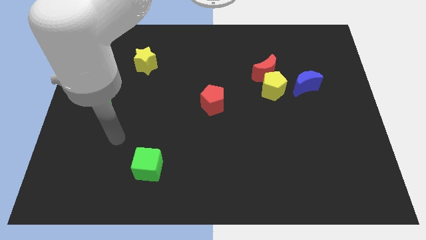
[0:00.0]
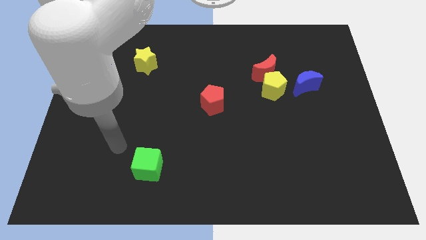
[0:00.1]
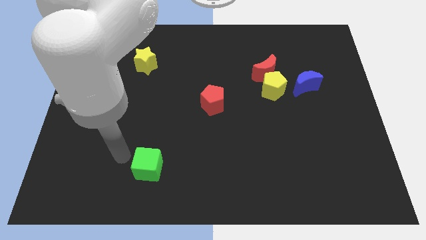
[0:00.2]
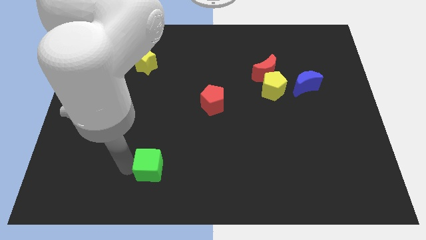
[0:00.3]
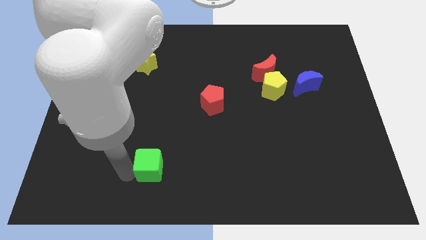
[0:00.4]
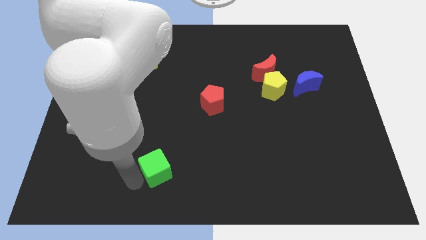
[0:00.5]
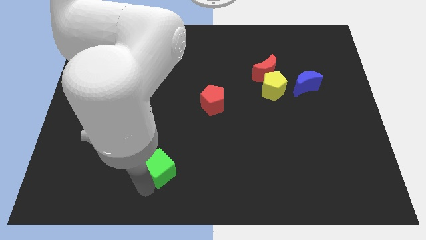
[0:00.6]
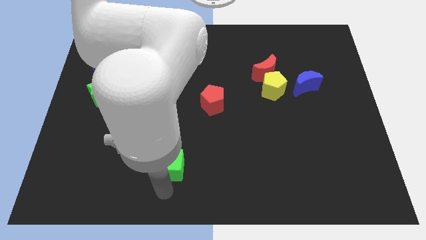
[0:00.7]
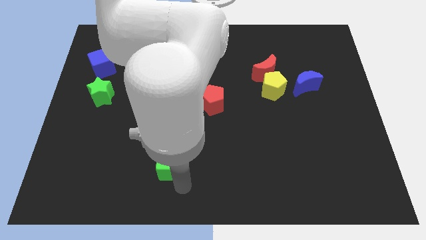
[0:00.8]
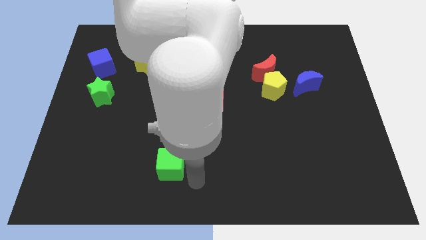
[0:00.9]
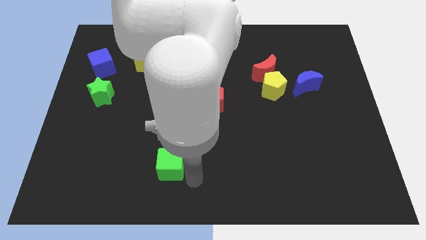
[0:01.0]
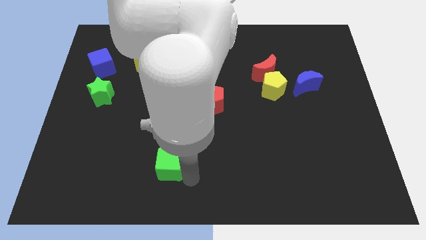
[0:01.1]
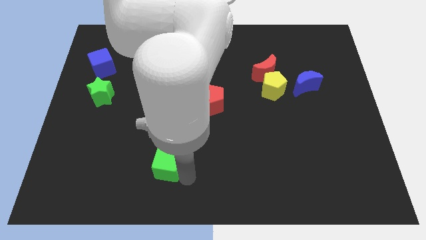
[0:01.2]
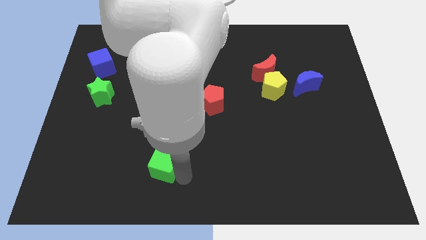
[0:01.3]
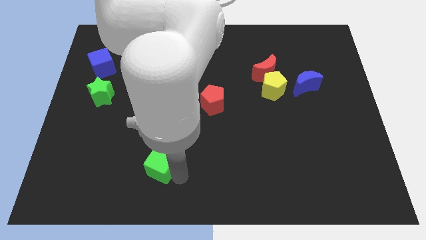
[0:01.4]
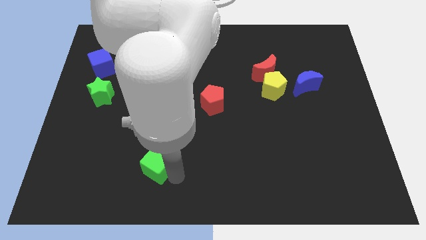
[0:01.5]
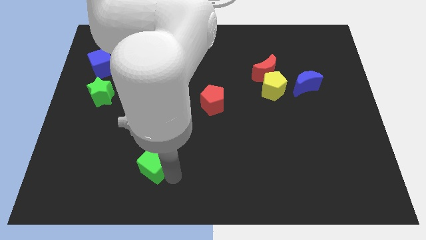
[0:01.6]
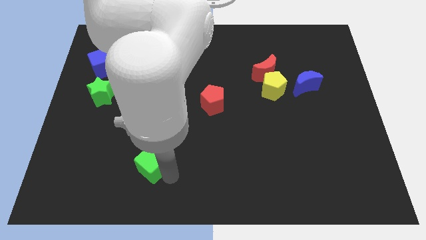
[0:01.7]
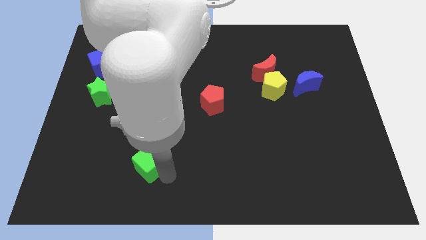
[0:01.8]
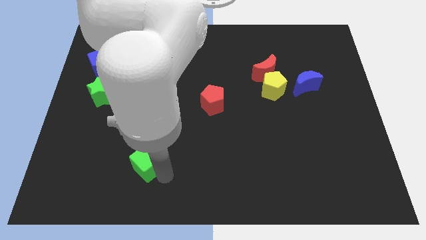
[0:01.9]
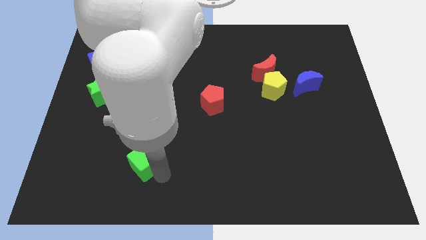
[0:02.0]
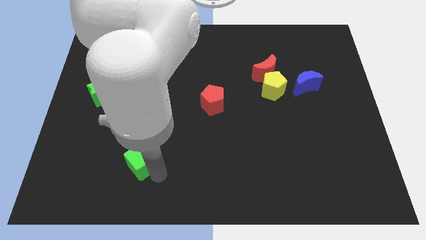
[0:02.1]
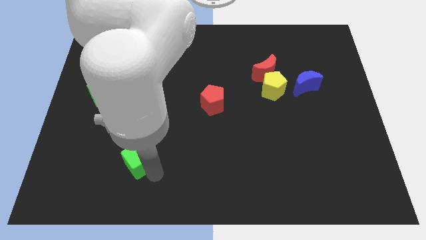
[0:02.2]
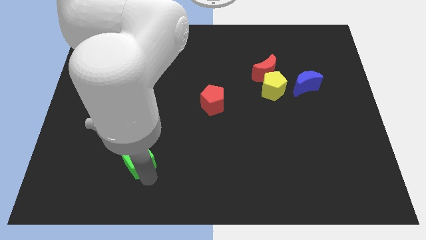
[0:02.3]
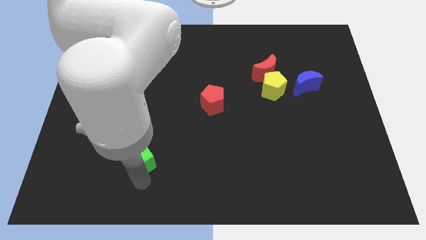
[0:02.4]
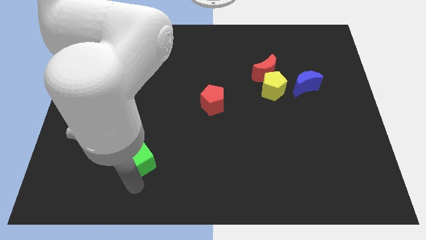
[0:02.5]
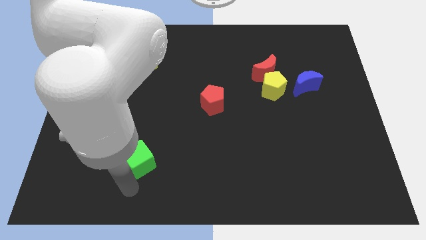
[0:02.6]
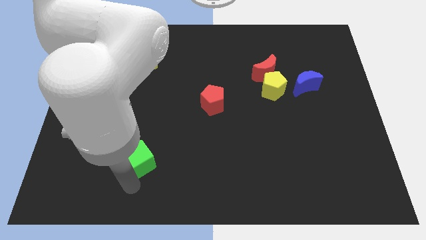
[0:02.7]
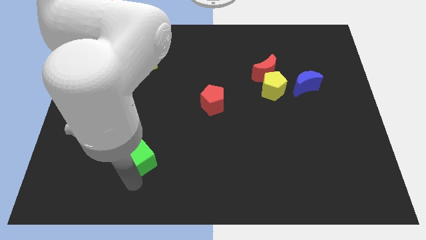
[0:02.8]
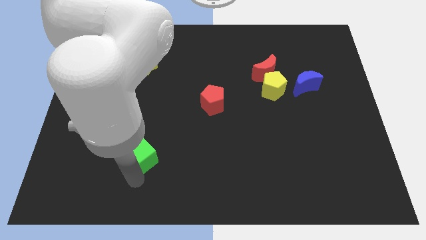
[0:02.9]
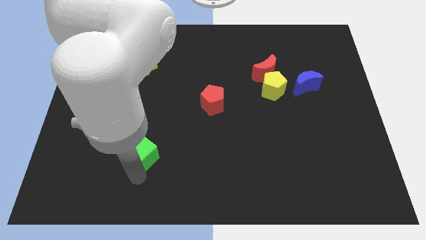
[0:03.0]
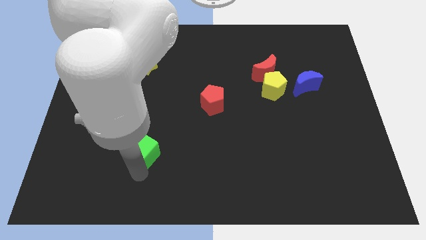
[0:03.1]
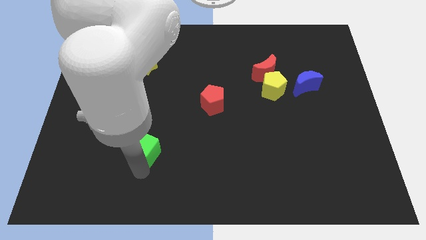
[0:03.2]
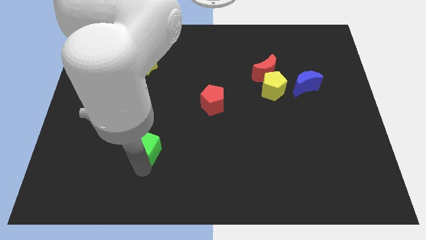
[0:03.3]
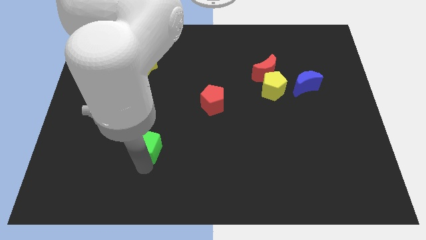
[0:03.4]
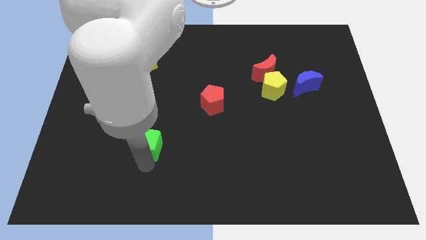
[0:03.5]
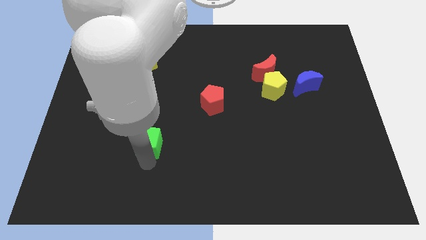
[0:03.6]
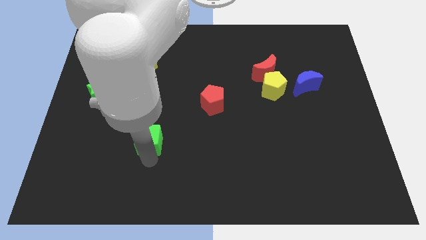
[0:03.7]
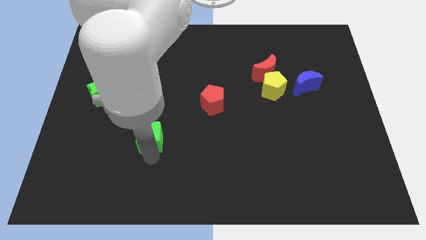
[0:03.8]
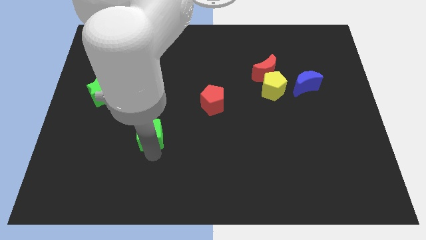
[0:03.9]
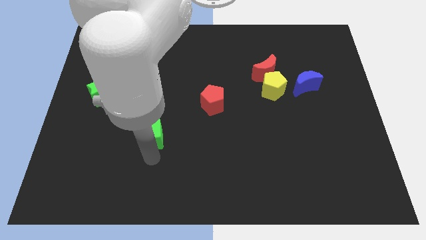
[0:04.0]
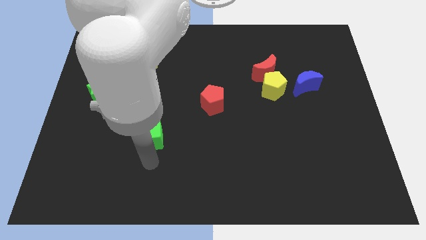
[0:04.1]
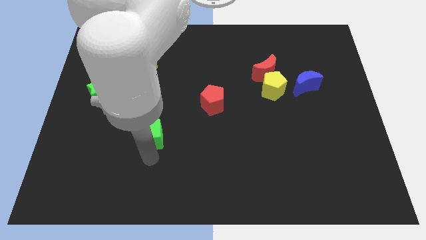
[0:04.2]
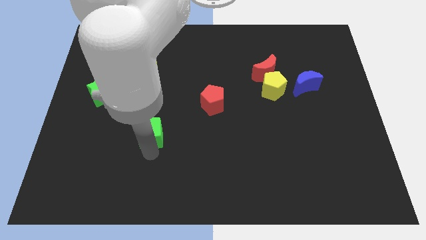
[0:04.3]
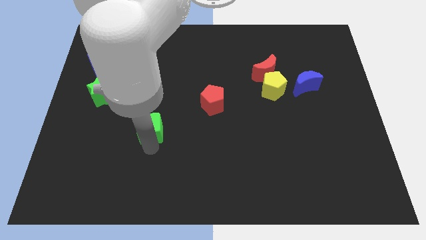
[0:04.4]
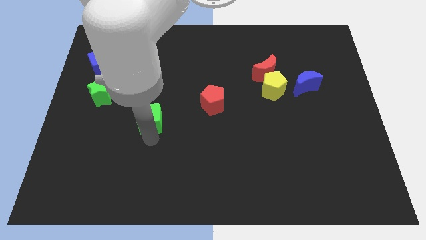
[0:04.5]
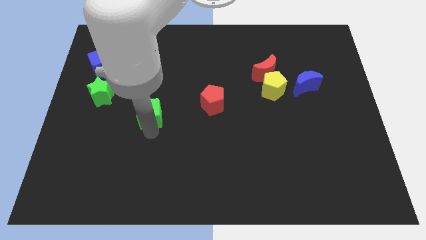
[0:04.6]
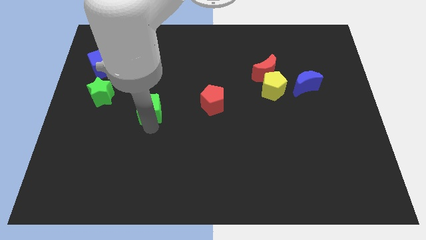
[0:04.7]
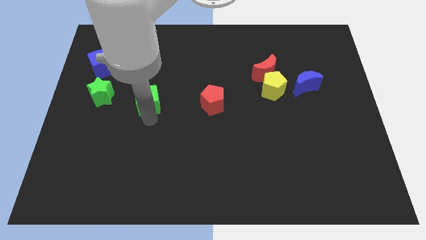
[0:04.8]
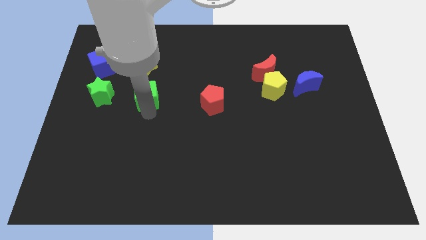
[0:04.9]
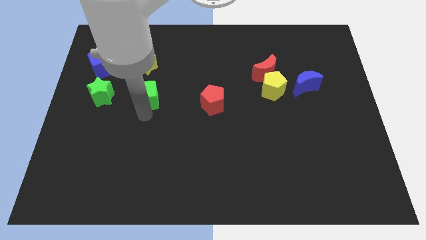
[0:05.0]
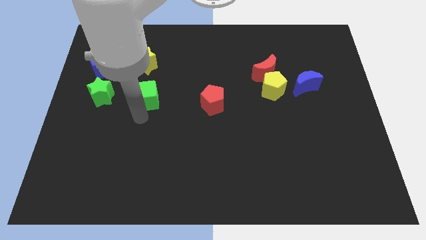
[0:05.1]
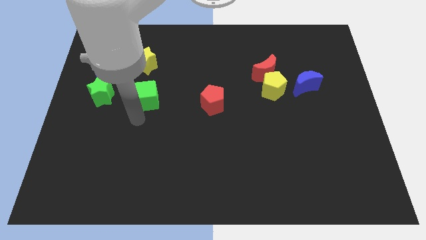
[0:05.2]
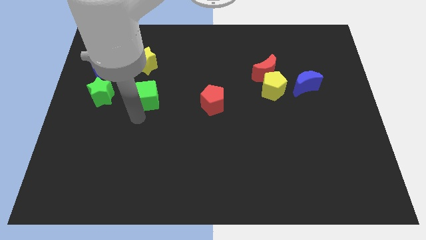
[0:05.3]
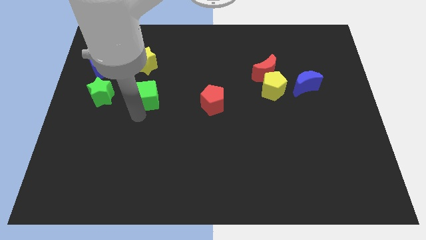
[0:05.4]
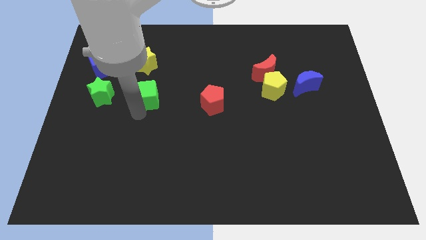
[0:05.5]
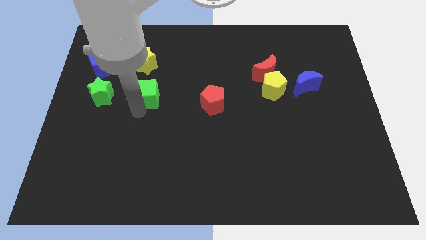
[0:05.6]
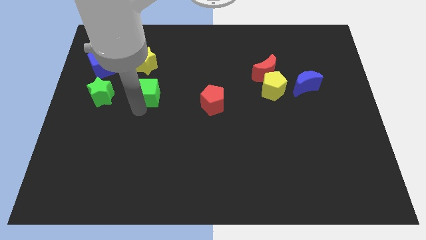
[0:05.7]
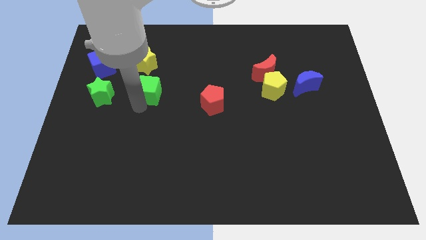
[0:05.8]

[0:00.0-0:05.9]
push the green cube upwards

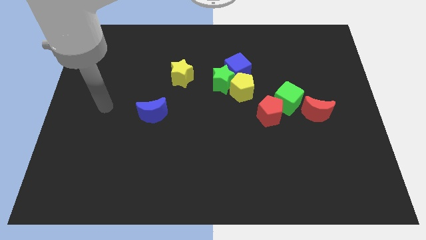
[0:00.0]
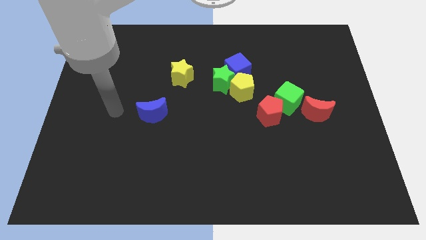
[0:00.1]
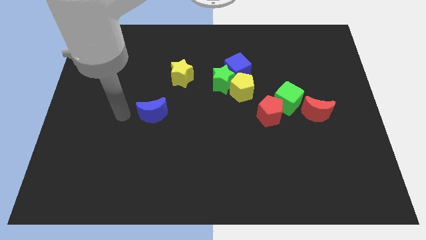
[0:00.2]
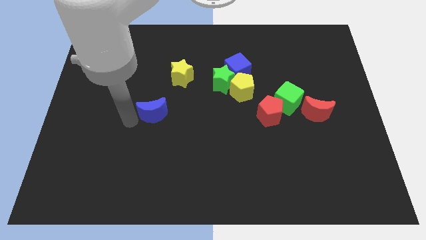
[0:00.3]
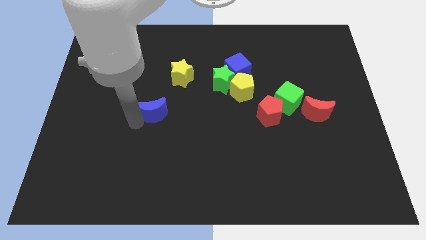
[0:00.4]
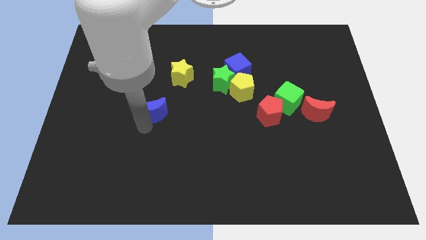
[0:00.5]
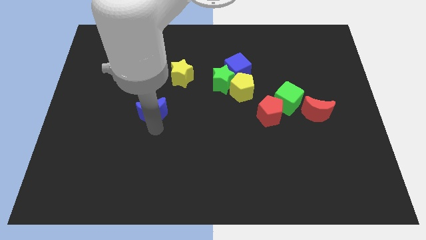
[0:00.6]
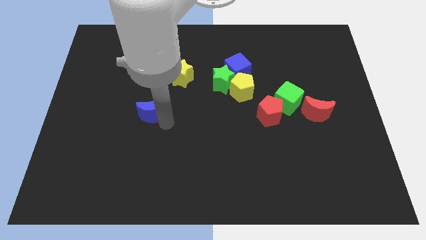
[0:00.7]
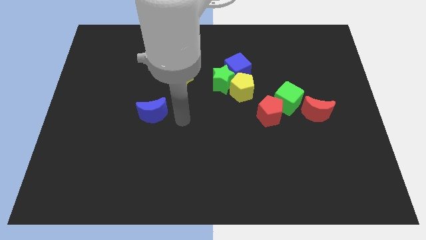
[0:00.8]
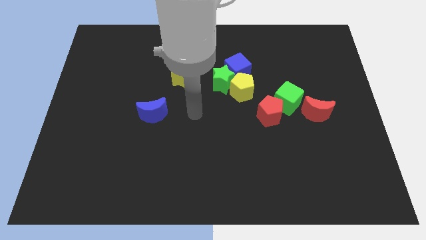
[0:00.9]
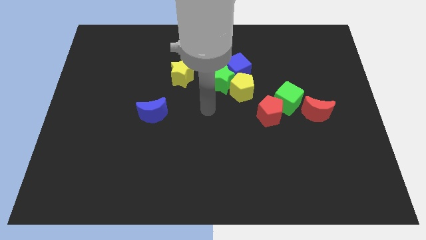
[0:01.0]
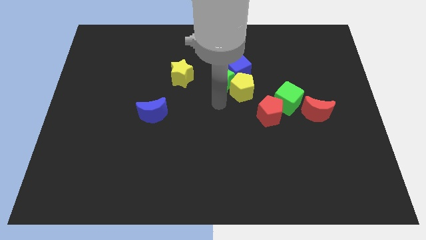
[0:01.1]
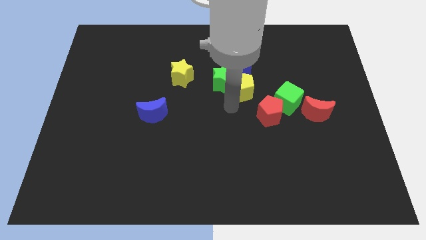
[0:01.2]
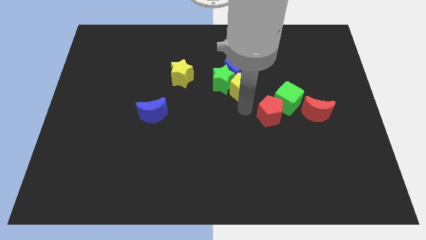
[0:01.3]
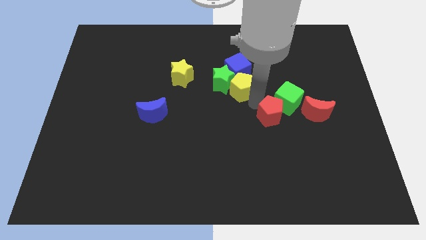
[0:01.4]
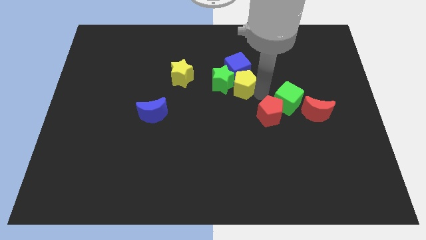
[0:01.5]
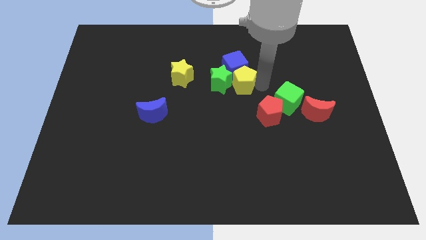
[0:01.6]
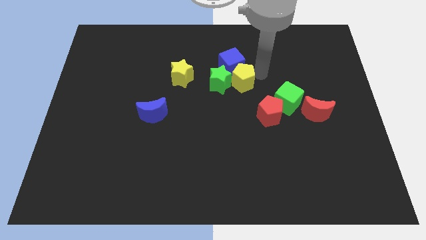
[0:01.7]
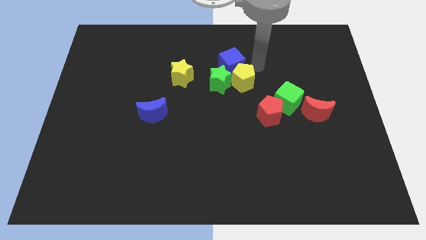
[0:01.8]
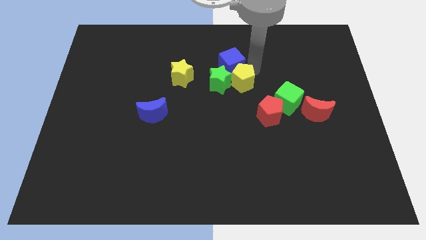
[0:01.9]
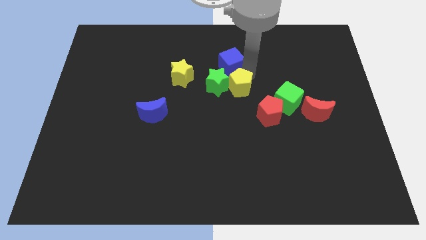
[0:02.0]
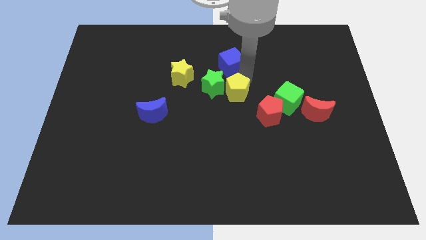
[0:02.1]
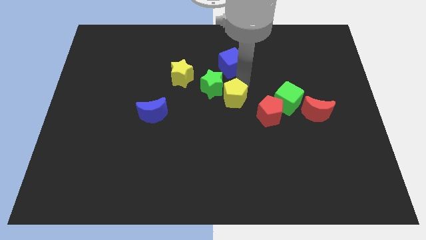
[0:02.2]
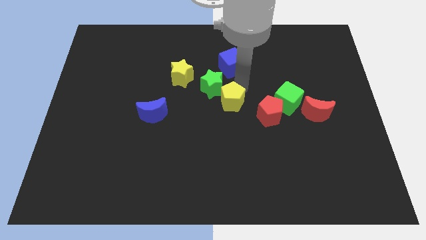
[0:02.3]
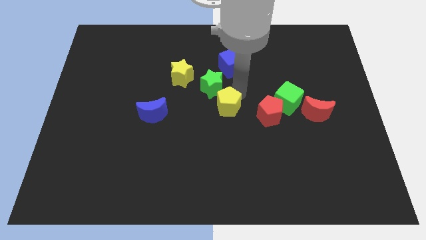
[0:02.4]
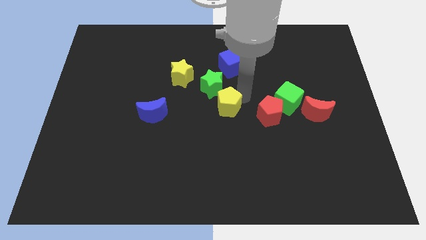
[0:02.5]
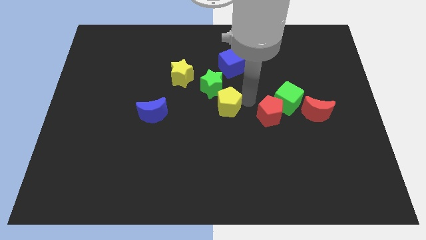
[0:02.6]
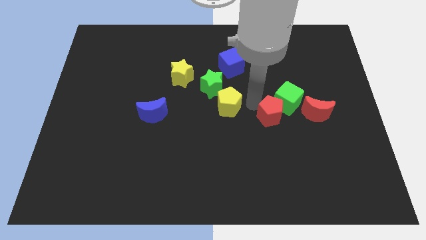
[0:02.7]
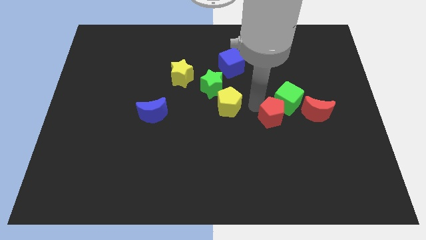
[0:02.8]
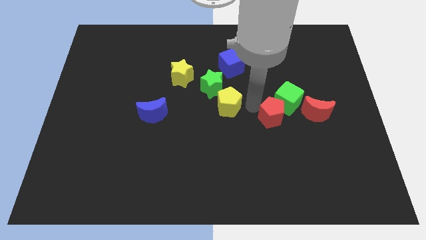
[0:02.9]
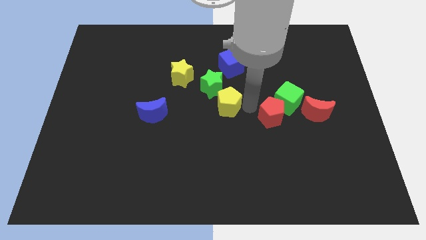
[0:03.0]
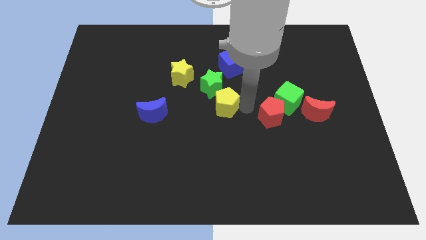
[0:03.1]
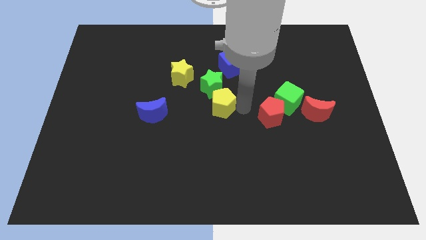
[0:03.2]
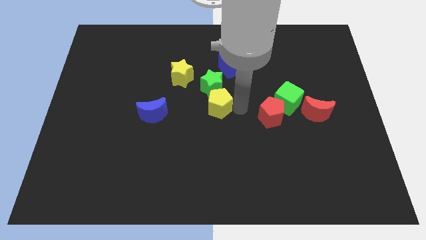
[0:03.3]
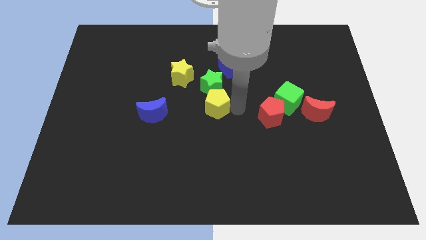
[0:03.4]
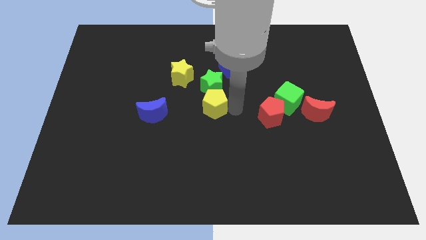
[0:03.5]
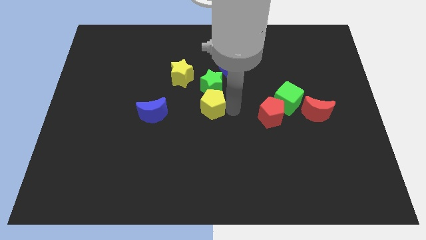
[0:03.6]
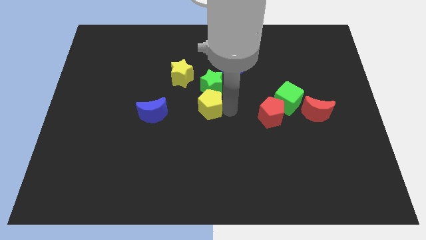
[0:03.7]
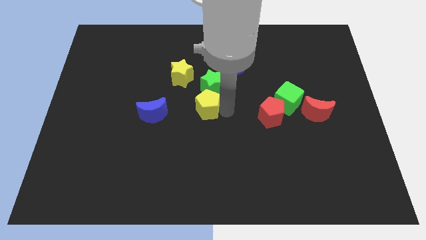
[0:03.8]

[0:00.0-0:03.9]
slightly move the yellow pentagon left
